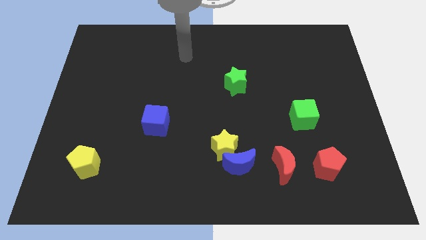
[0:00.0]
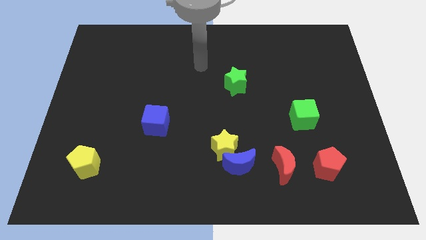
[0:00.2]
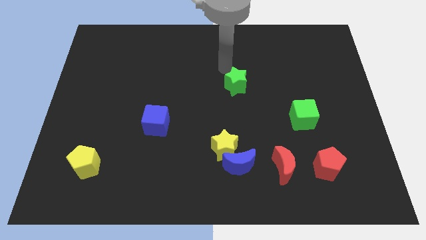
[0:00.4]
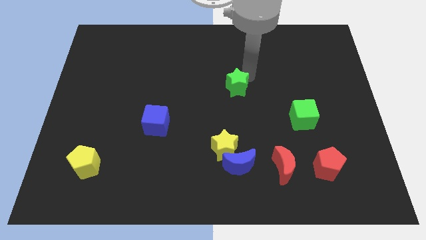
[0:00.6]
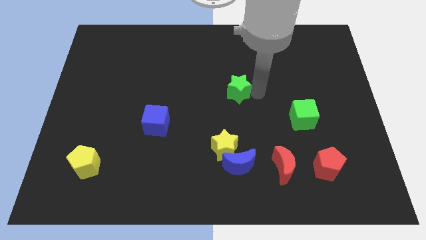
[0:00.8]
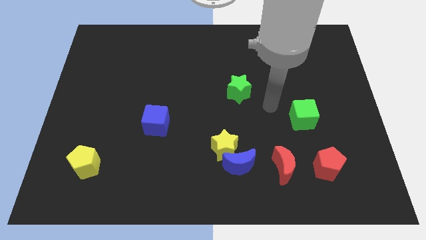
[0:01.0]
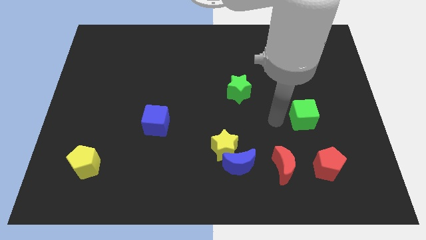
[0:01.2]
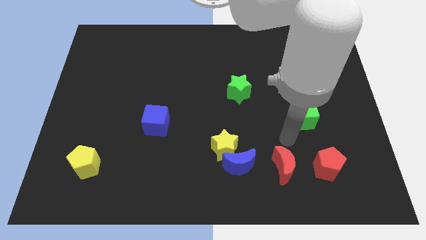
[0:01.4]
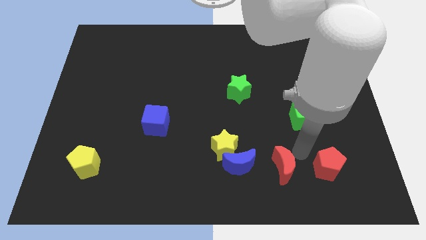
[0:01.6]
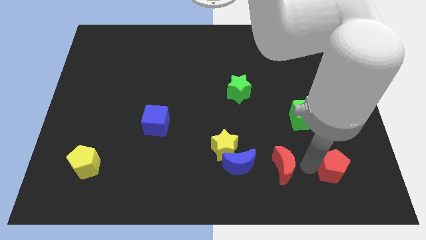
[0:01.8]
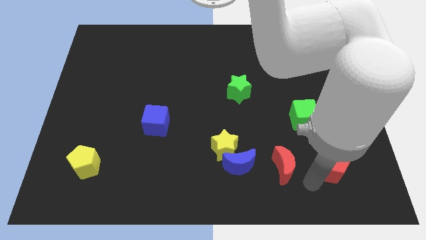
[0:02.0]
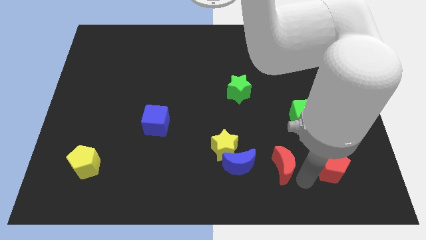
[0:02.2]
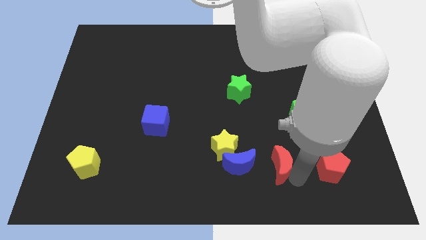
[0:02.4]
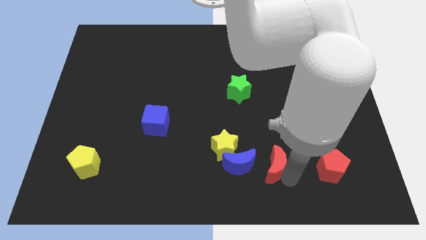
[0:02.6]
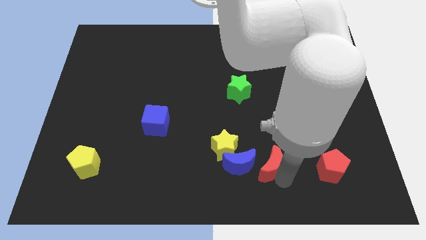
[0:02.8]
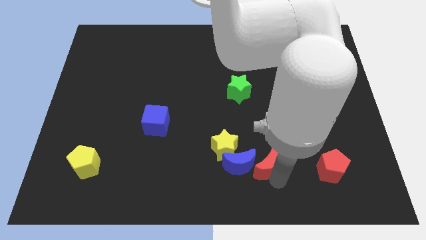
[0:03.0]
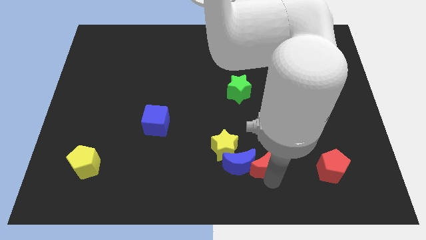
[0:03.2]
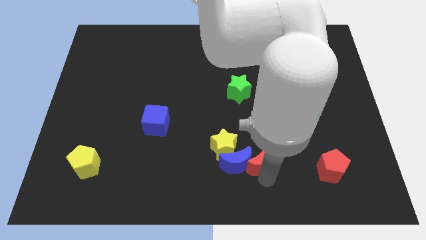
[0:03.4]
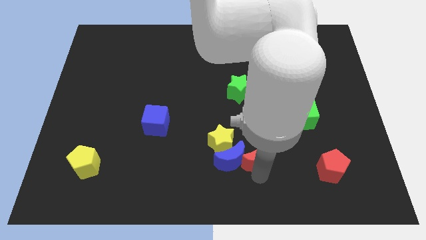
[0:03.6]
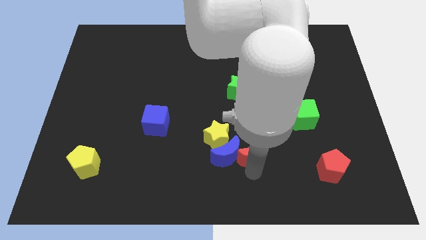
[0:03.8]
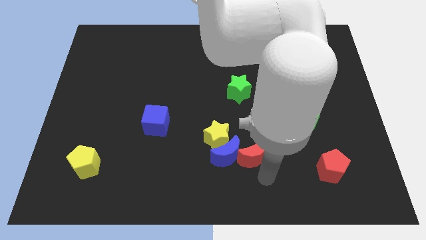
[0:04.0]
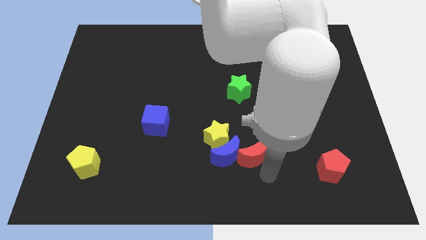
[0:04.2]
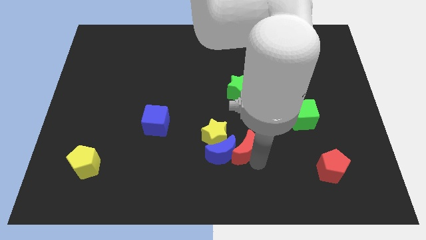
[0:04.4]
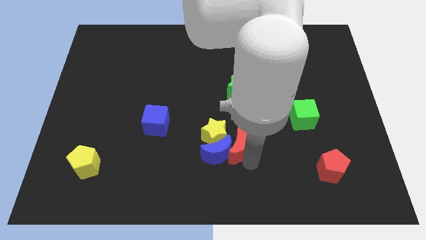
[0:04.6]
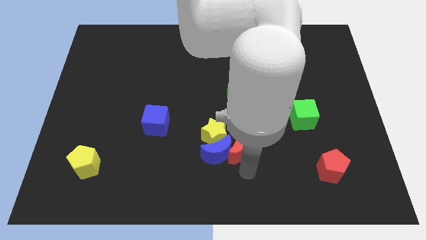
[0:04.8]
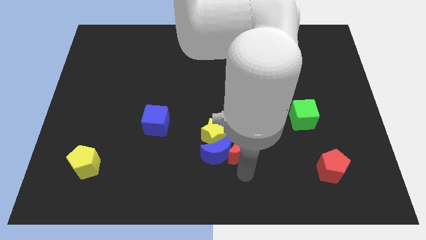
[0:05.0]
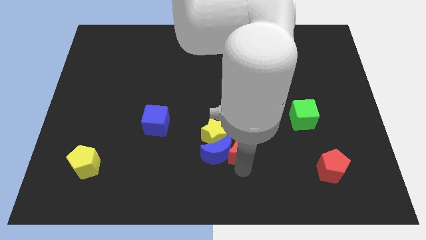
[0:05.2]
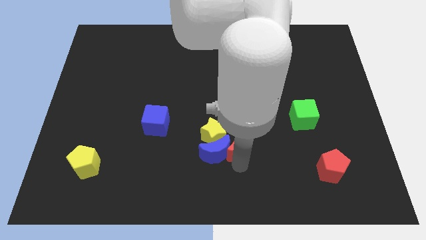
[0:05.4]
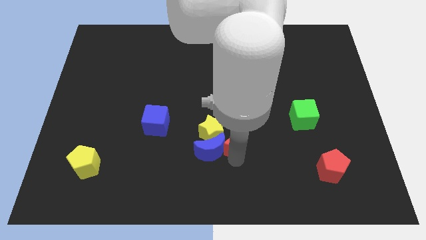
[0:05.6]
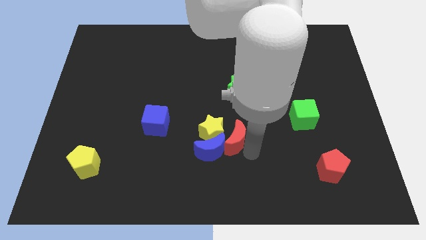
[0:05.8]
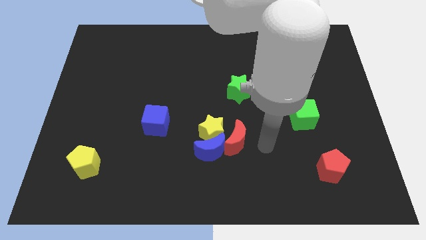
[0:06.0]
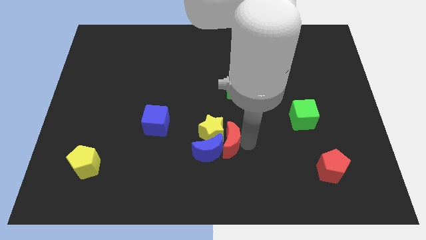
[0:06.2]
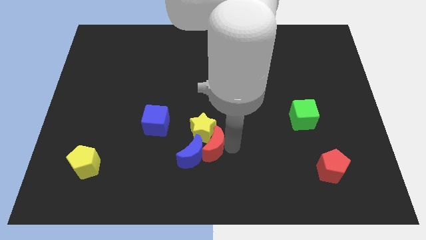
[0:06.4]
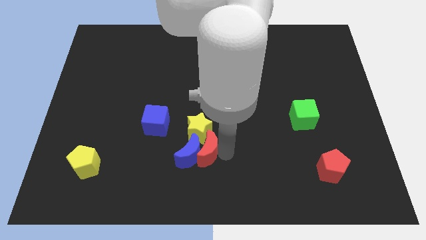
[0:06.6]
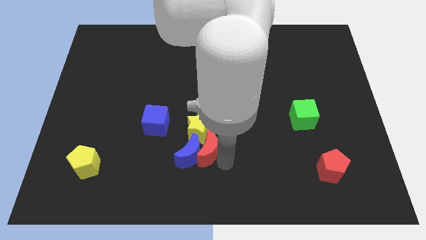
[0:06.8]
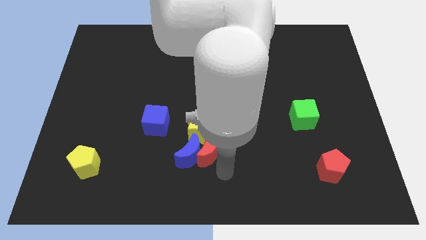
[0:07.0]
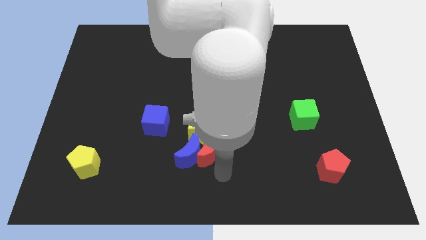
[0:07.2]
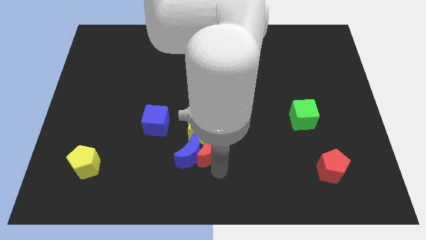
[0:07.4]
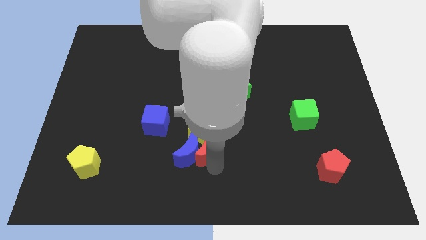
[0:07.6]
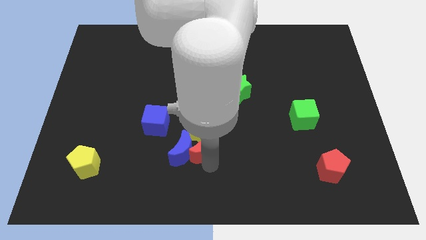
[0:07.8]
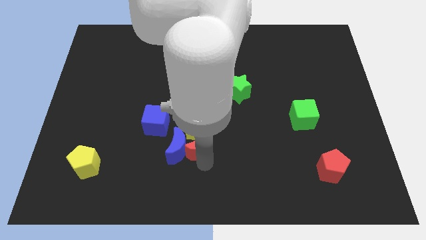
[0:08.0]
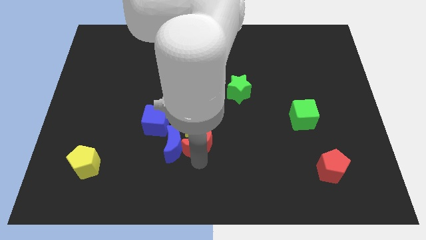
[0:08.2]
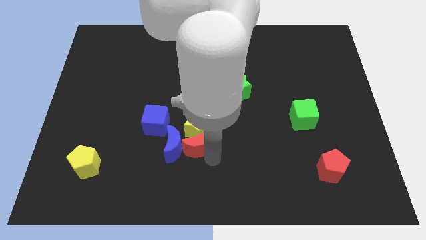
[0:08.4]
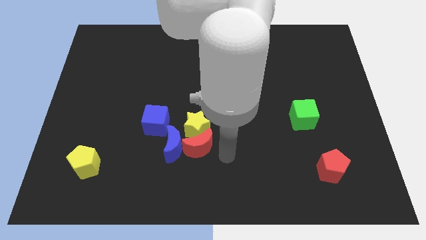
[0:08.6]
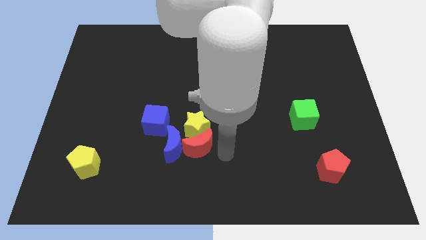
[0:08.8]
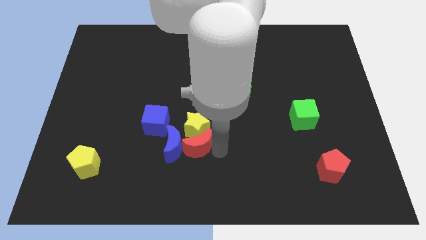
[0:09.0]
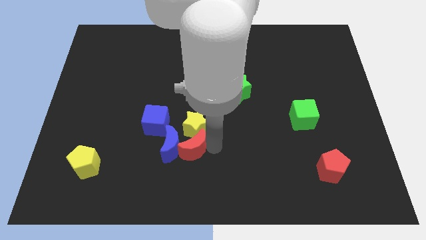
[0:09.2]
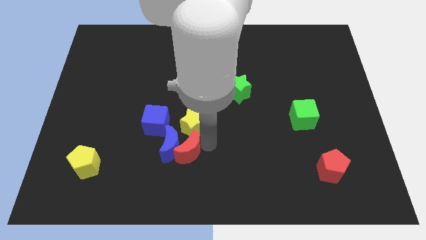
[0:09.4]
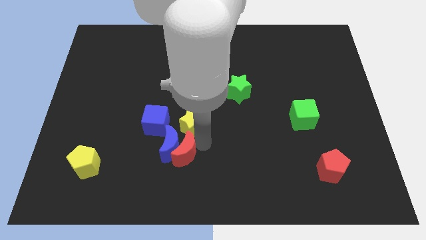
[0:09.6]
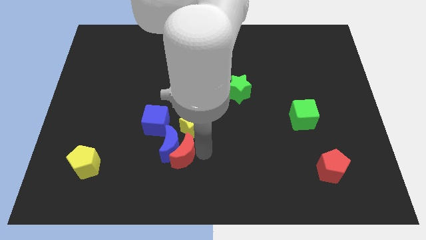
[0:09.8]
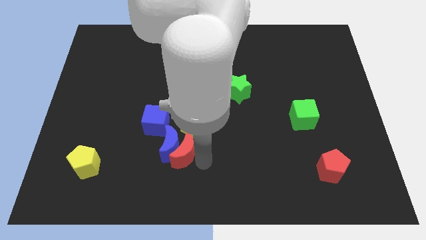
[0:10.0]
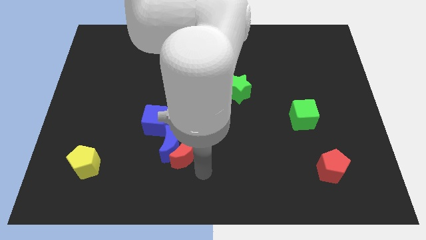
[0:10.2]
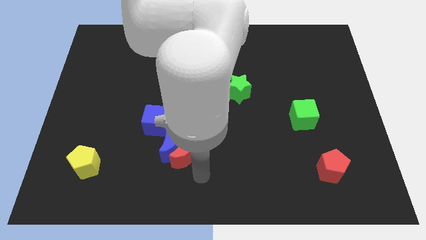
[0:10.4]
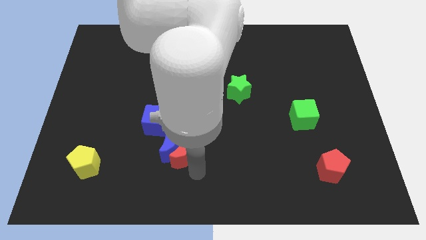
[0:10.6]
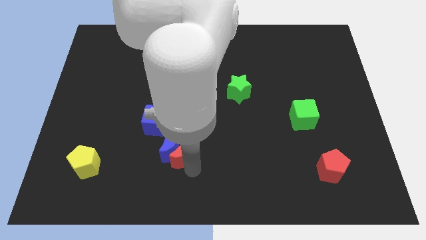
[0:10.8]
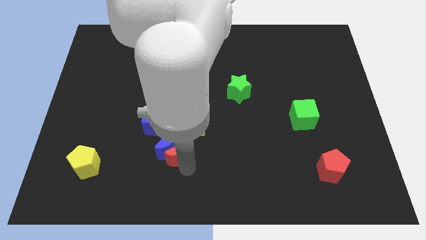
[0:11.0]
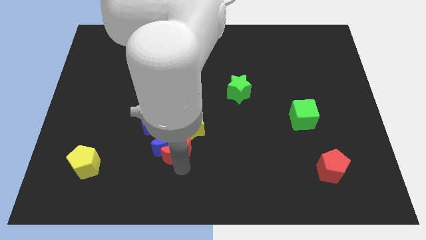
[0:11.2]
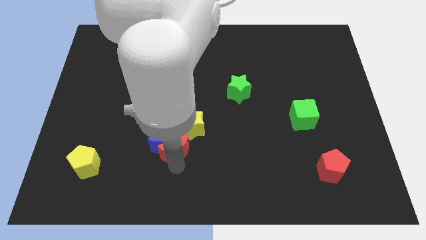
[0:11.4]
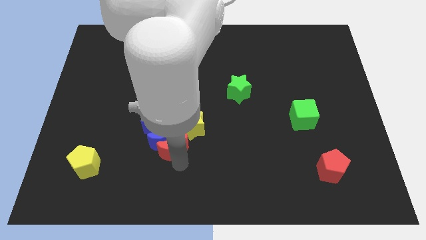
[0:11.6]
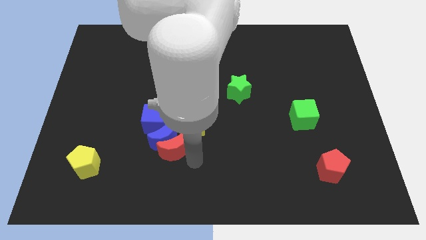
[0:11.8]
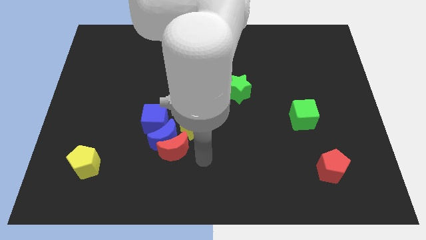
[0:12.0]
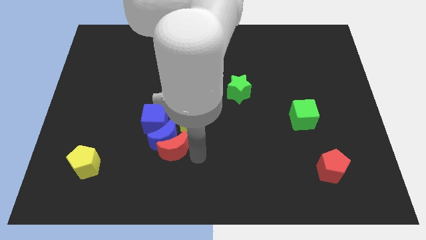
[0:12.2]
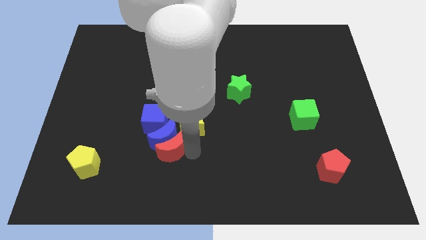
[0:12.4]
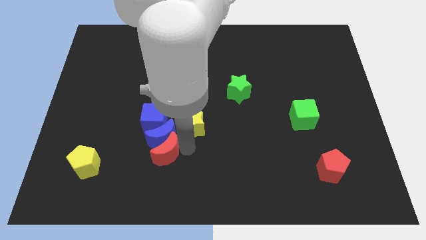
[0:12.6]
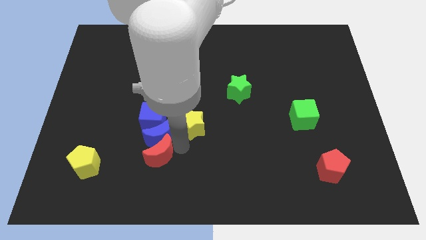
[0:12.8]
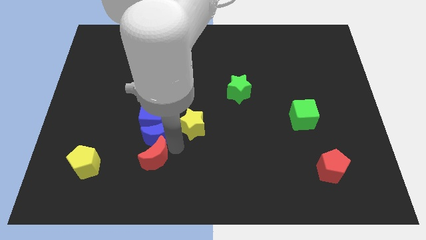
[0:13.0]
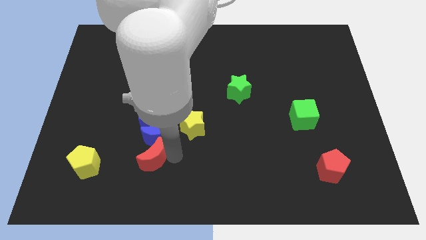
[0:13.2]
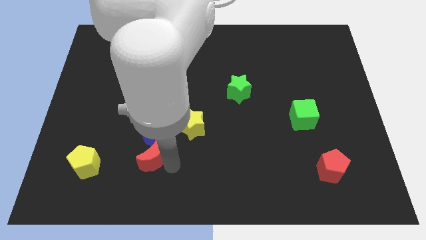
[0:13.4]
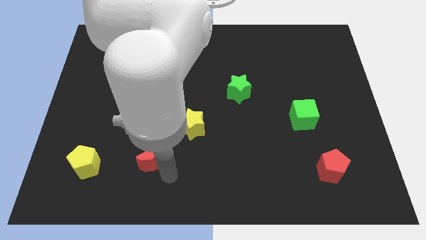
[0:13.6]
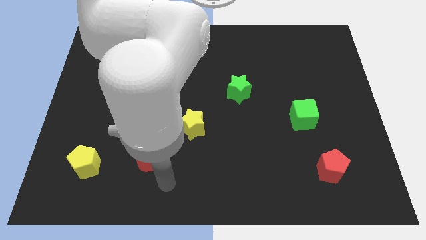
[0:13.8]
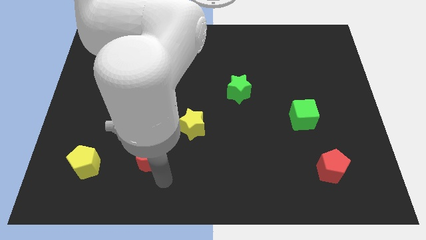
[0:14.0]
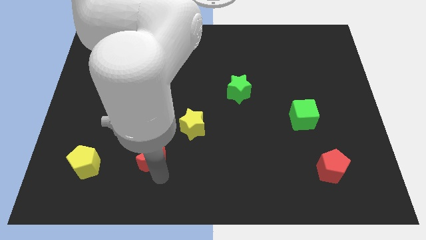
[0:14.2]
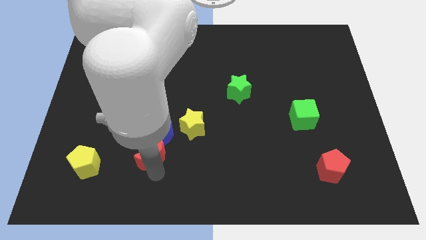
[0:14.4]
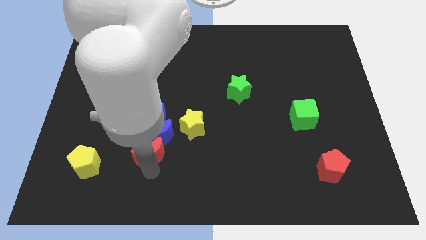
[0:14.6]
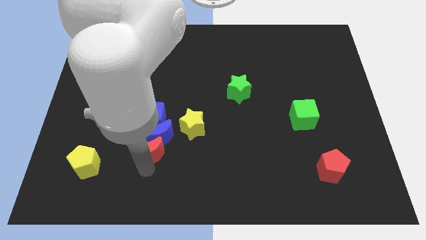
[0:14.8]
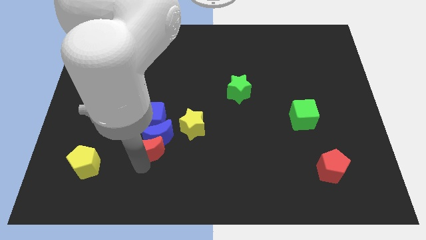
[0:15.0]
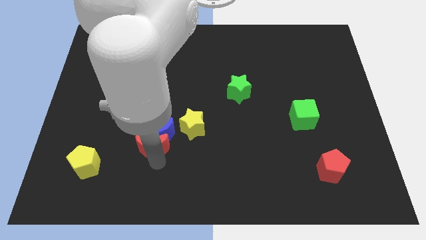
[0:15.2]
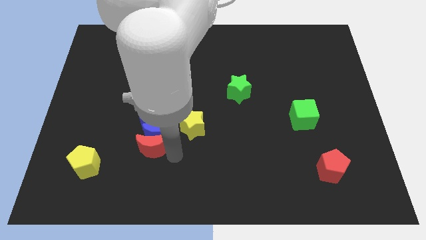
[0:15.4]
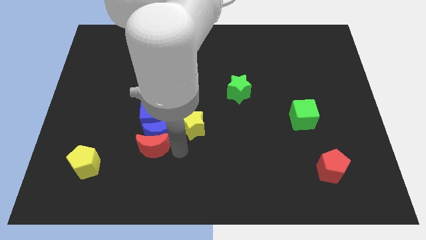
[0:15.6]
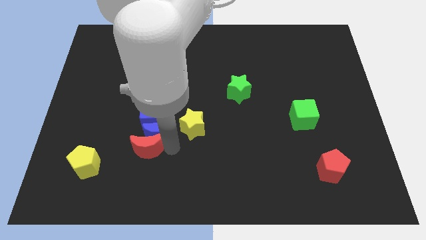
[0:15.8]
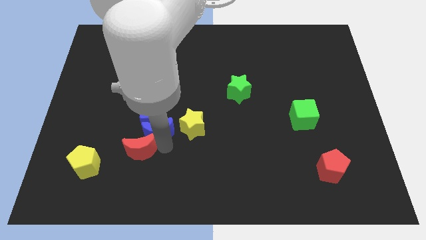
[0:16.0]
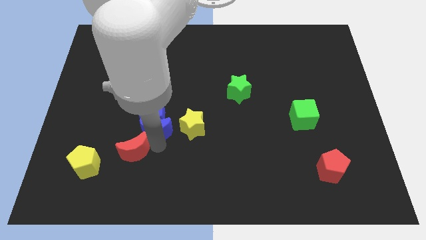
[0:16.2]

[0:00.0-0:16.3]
slide the red moon to the top right of the yellow pentagon
